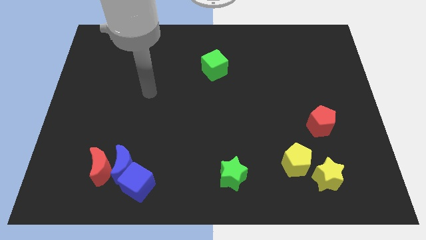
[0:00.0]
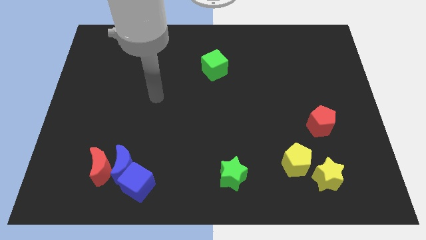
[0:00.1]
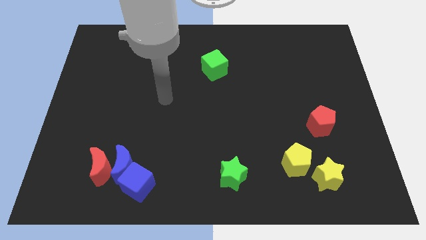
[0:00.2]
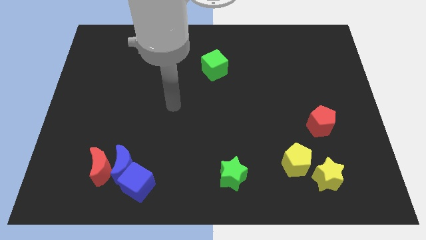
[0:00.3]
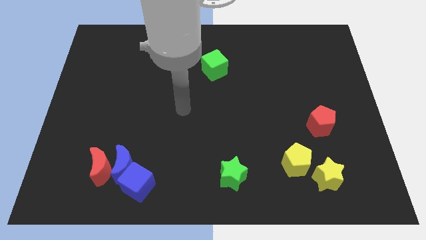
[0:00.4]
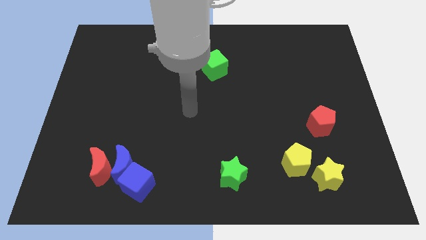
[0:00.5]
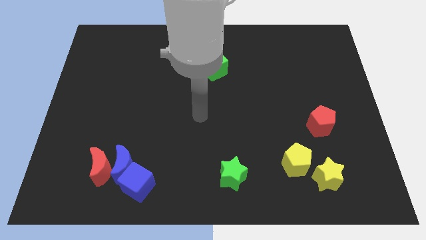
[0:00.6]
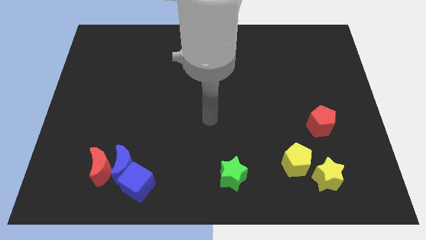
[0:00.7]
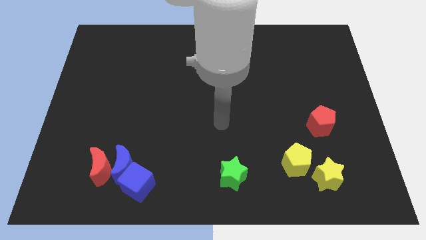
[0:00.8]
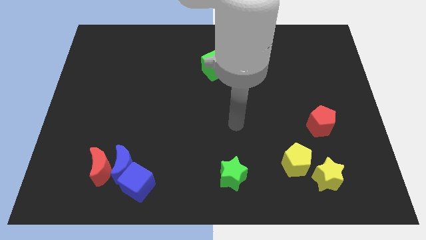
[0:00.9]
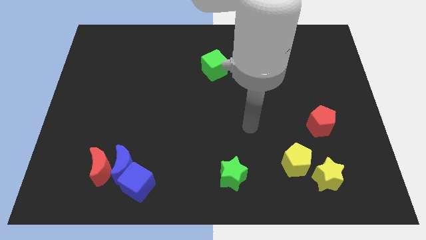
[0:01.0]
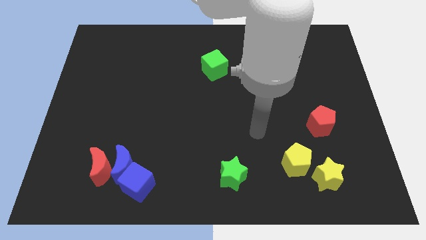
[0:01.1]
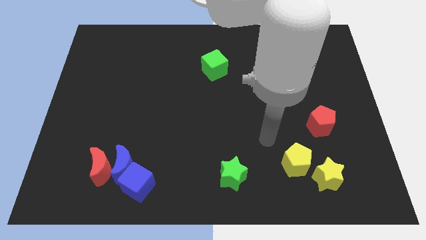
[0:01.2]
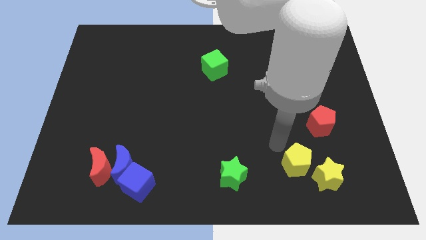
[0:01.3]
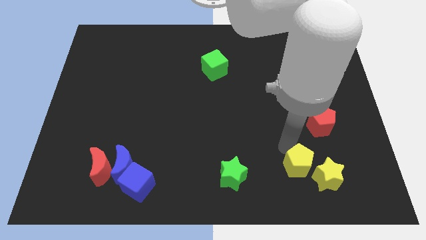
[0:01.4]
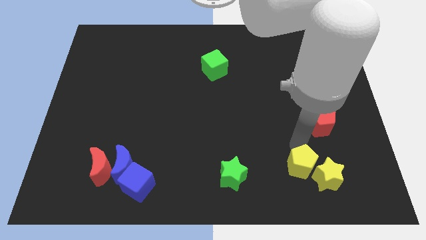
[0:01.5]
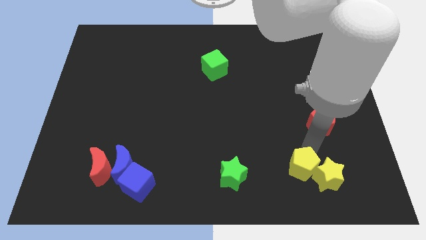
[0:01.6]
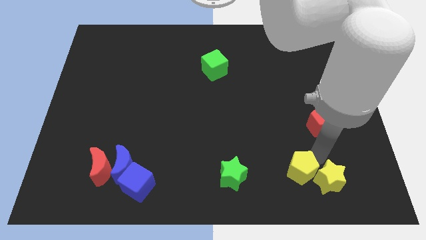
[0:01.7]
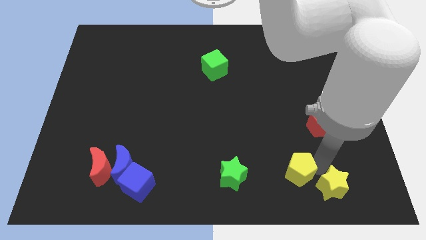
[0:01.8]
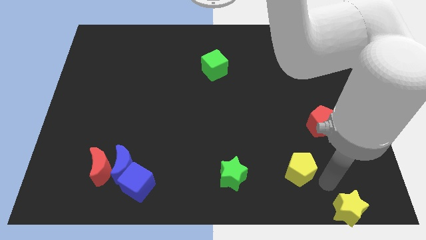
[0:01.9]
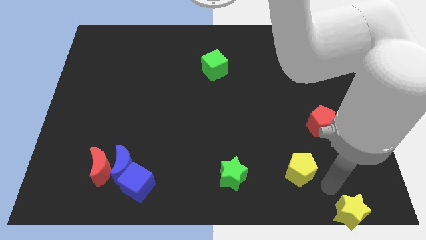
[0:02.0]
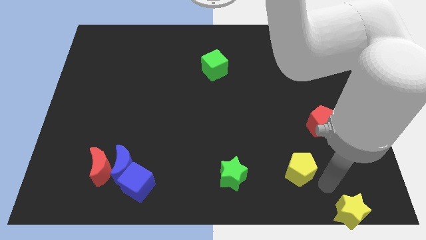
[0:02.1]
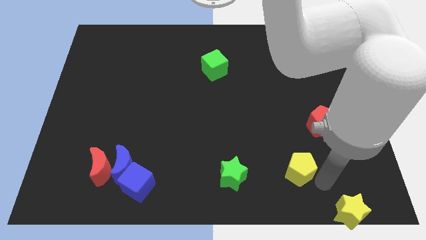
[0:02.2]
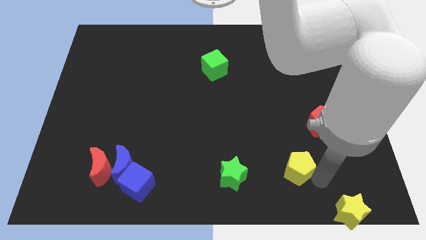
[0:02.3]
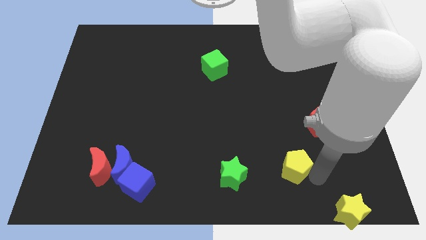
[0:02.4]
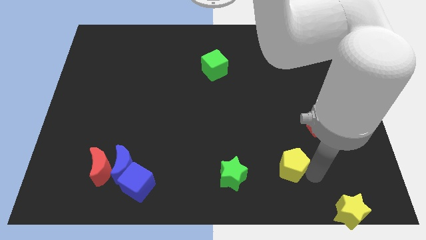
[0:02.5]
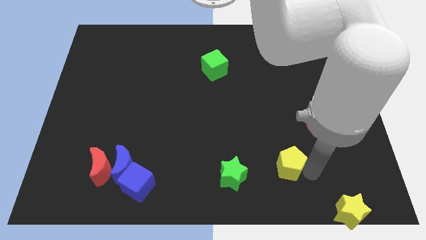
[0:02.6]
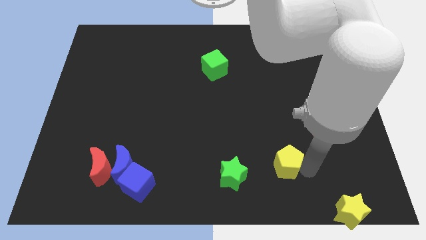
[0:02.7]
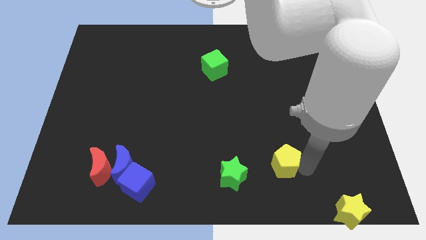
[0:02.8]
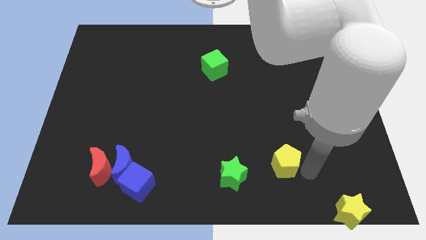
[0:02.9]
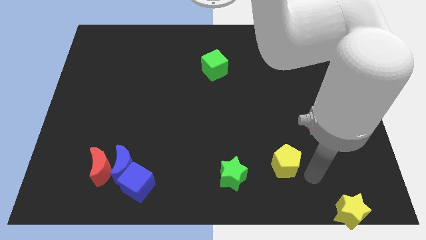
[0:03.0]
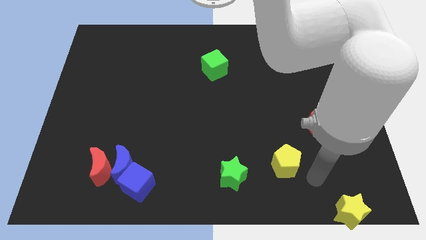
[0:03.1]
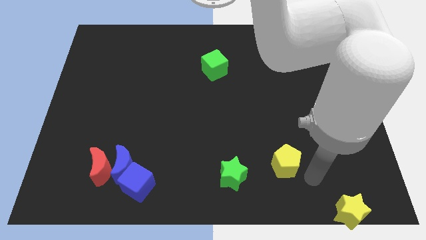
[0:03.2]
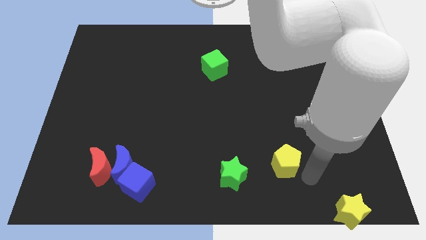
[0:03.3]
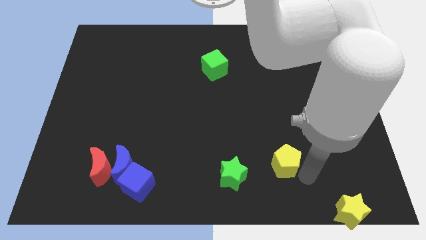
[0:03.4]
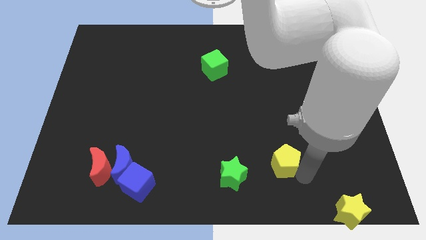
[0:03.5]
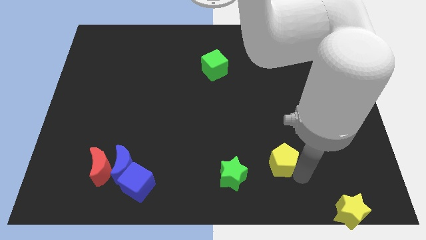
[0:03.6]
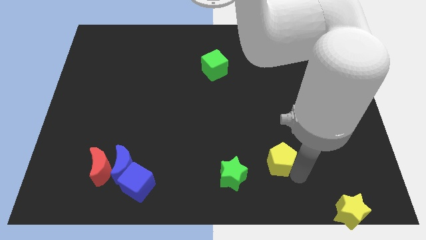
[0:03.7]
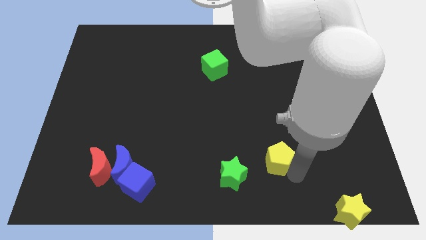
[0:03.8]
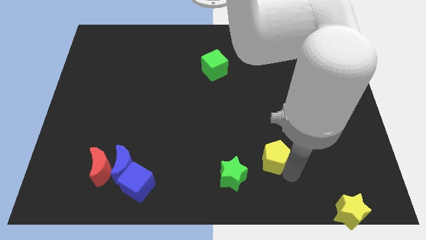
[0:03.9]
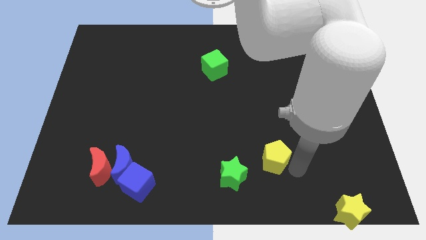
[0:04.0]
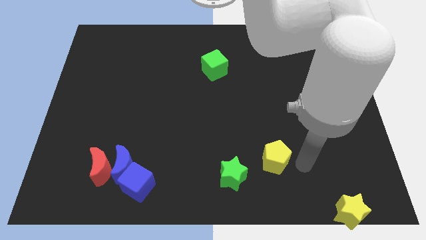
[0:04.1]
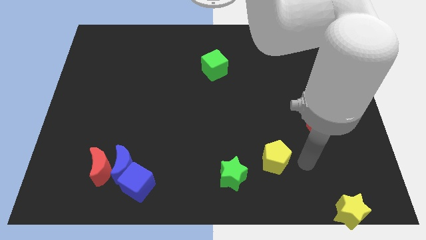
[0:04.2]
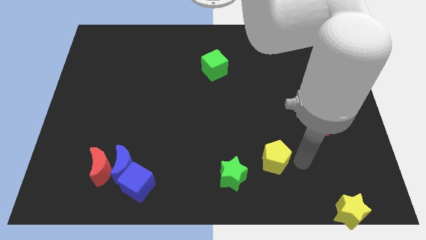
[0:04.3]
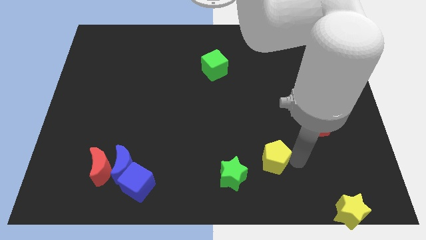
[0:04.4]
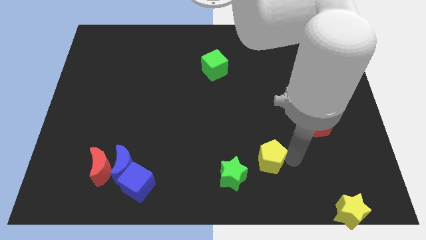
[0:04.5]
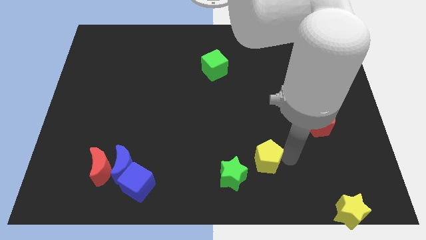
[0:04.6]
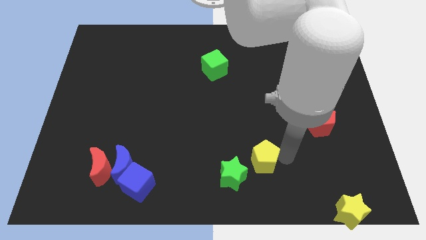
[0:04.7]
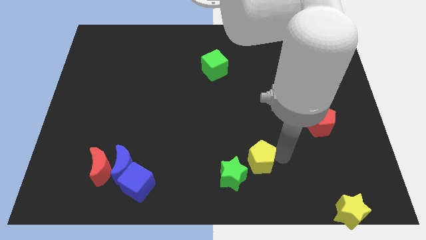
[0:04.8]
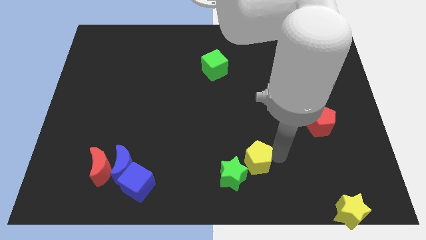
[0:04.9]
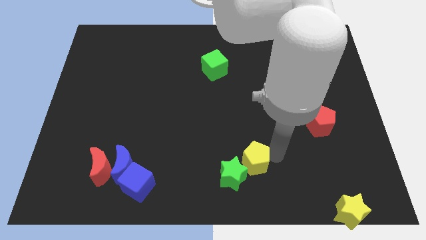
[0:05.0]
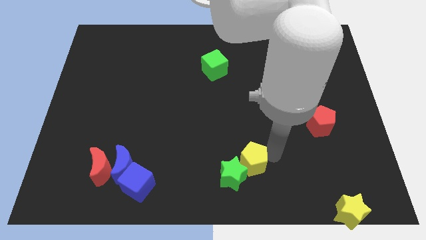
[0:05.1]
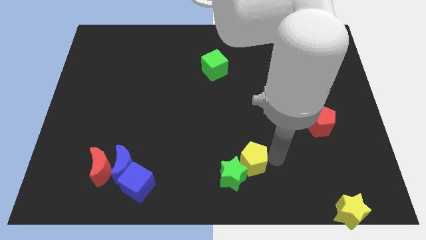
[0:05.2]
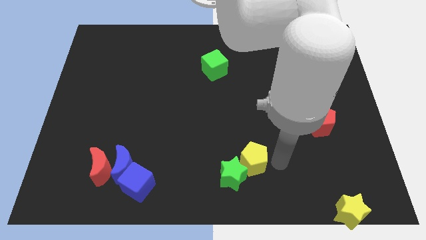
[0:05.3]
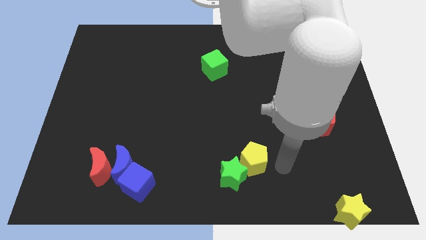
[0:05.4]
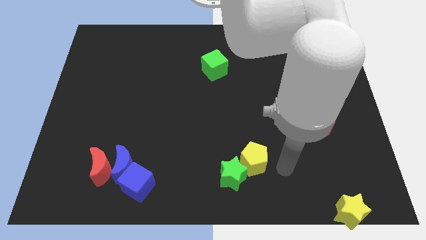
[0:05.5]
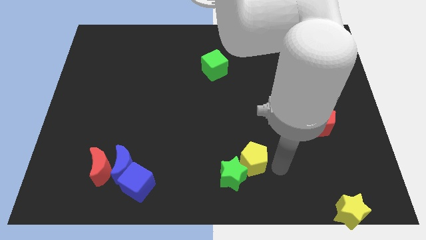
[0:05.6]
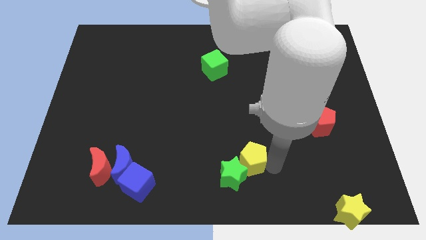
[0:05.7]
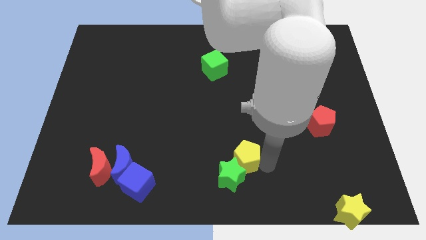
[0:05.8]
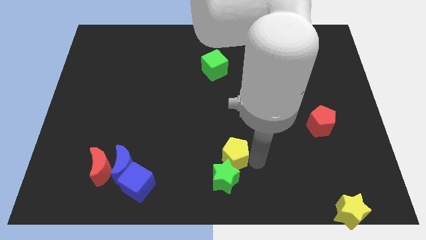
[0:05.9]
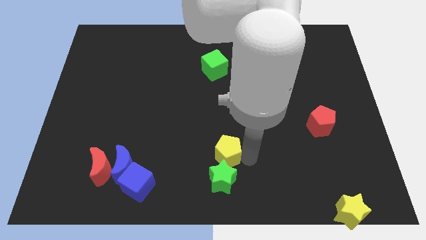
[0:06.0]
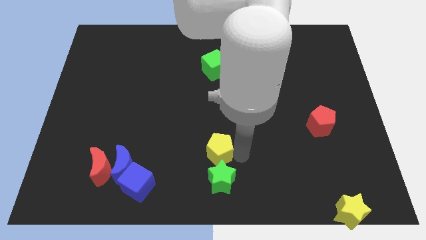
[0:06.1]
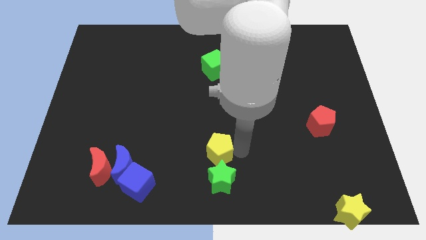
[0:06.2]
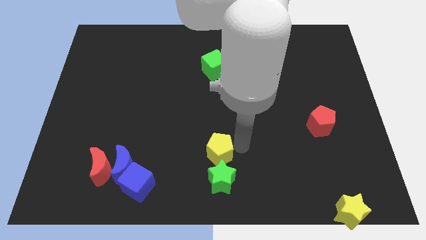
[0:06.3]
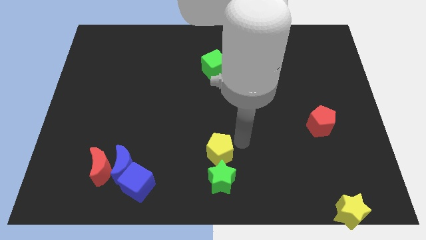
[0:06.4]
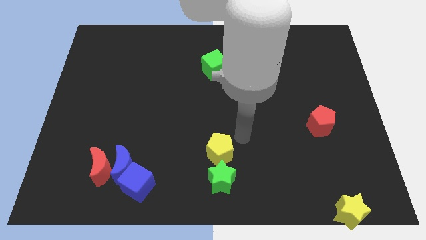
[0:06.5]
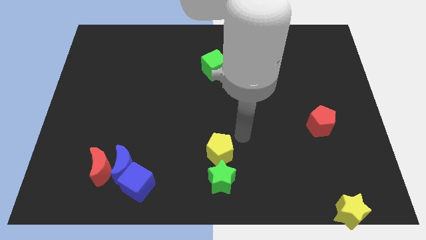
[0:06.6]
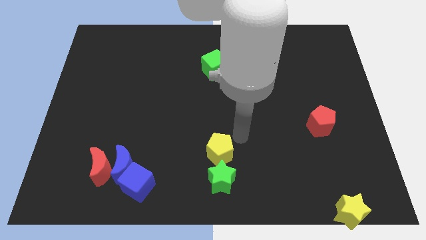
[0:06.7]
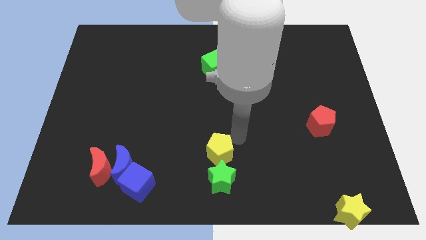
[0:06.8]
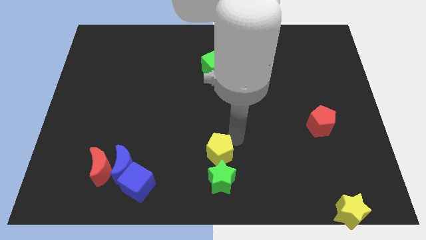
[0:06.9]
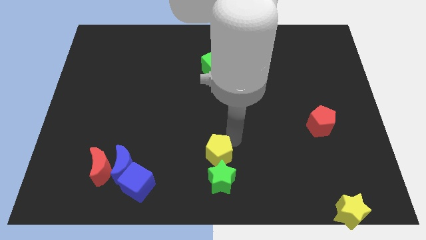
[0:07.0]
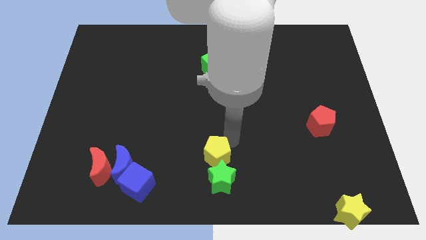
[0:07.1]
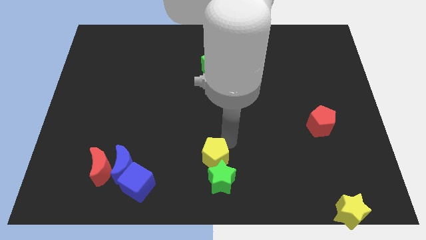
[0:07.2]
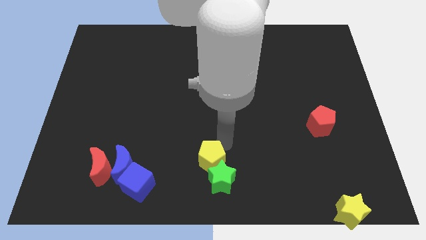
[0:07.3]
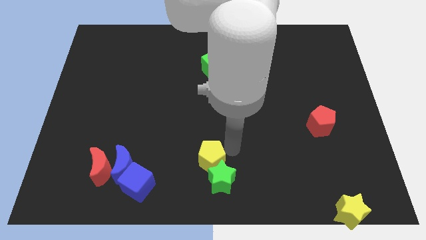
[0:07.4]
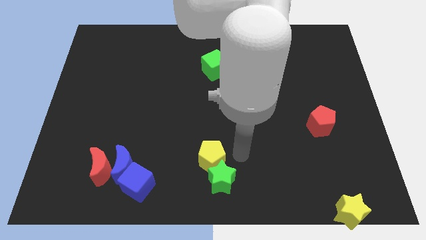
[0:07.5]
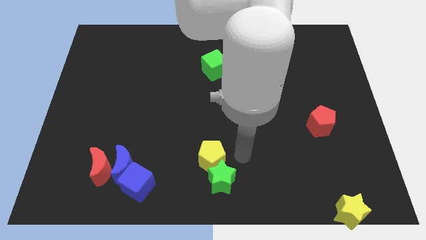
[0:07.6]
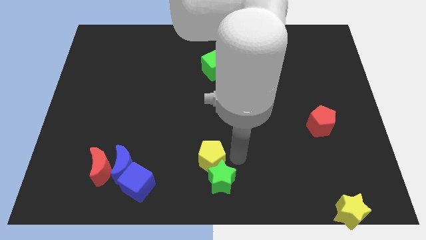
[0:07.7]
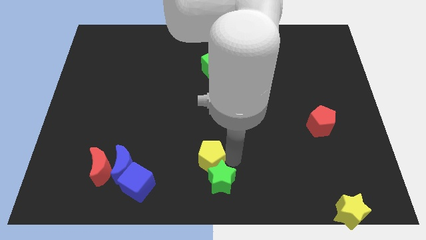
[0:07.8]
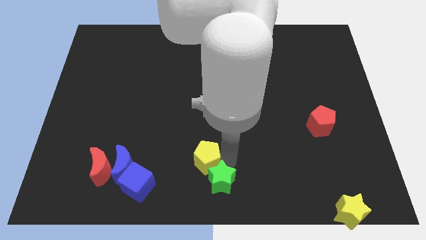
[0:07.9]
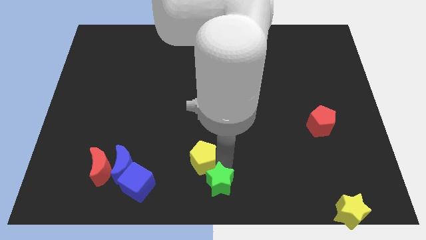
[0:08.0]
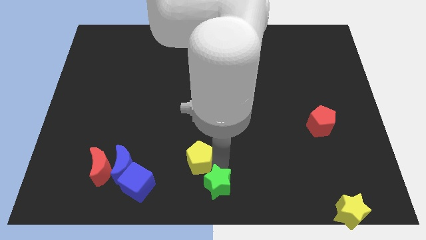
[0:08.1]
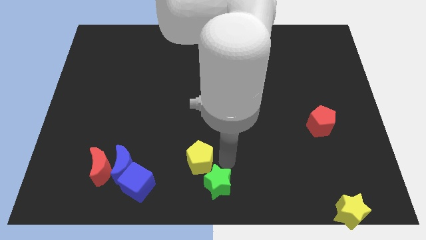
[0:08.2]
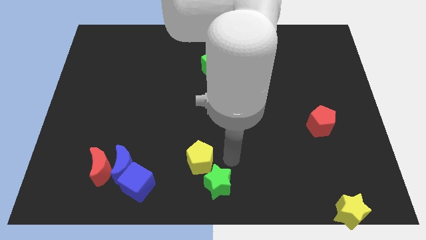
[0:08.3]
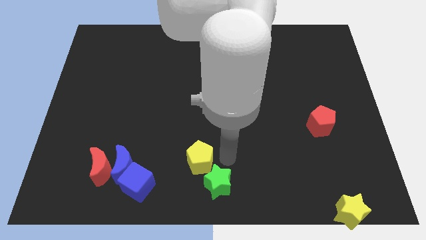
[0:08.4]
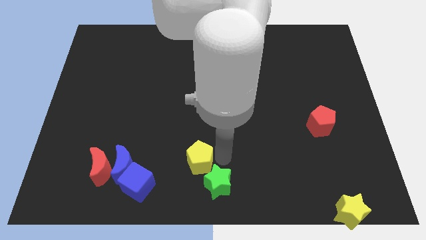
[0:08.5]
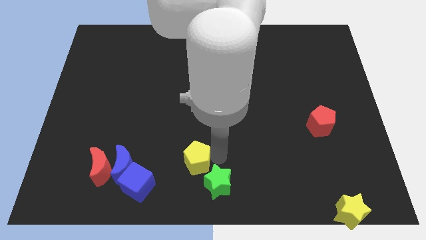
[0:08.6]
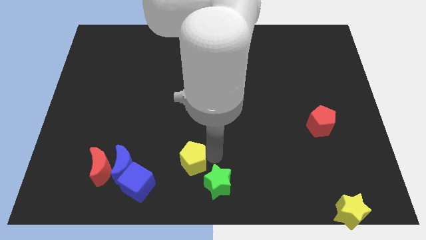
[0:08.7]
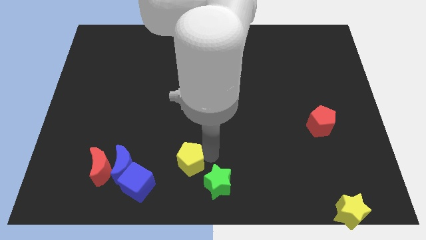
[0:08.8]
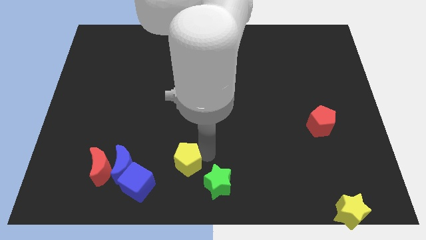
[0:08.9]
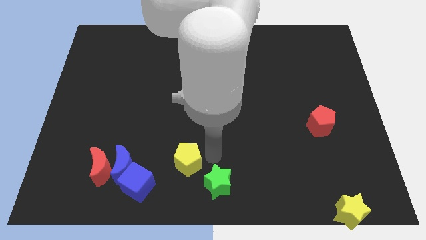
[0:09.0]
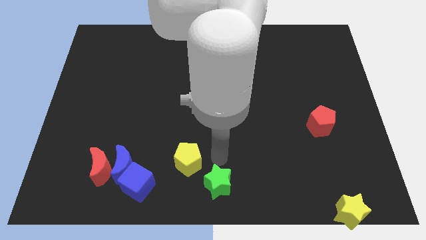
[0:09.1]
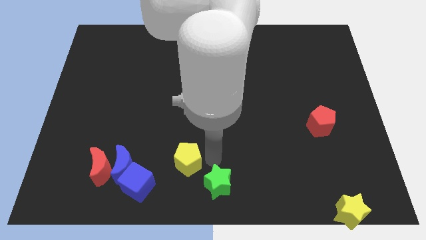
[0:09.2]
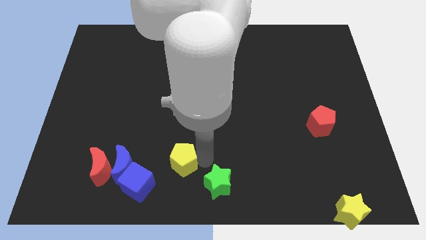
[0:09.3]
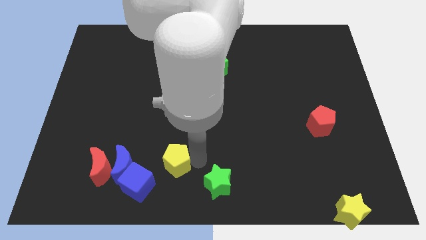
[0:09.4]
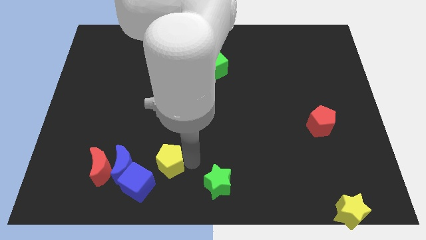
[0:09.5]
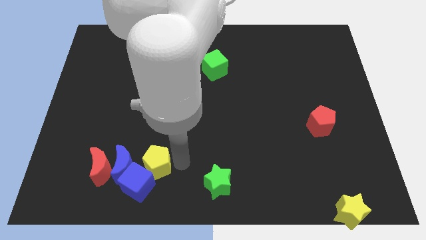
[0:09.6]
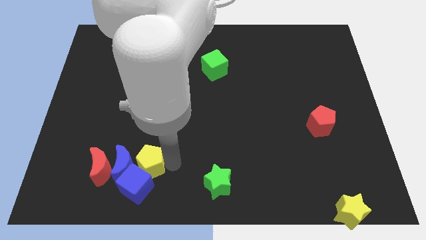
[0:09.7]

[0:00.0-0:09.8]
move the yellow pentagon towards the blue moon
